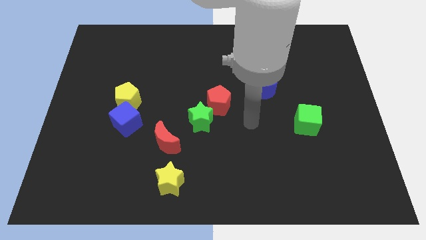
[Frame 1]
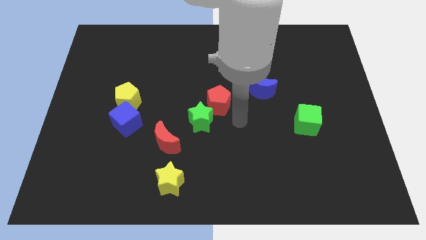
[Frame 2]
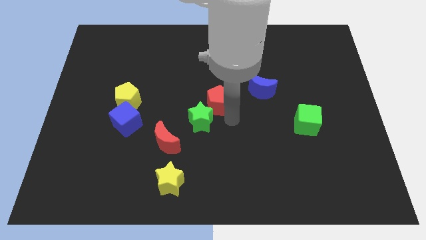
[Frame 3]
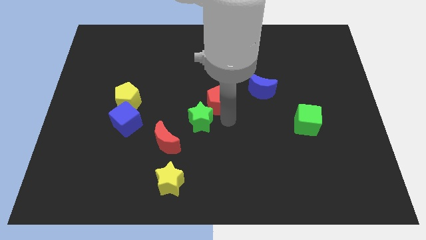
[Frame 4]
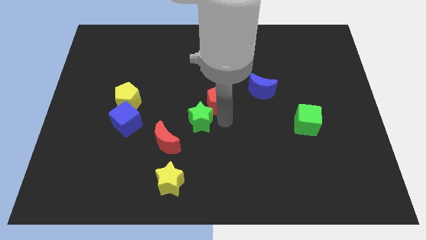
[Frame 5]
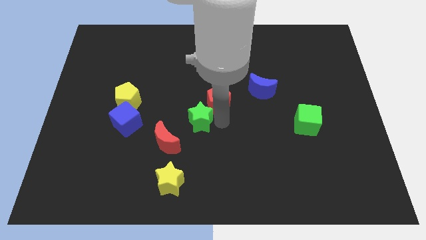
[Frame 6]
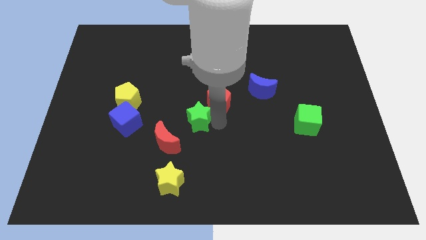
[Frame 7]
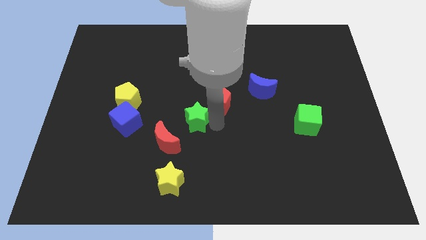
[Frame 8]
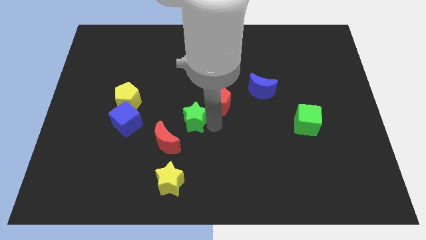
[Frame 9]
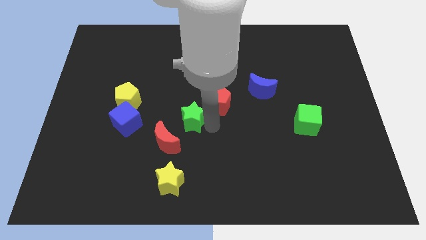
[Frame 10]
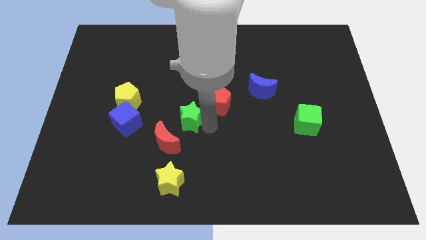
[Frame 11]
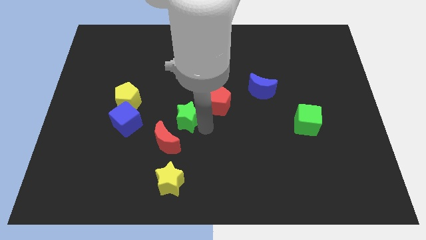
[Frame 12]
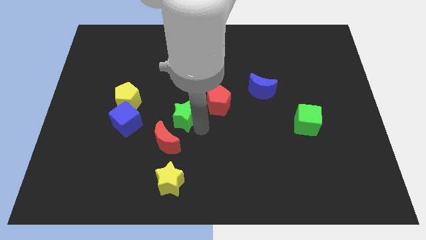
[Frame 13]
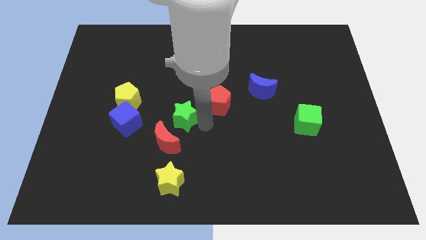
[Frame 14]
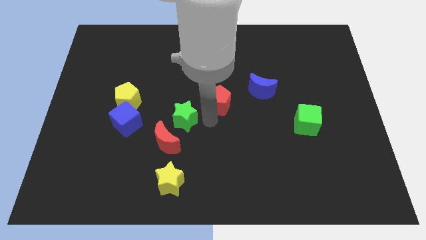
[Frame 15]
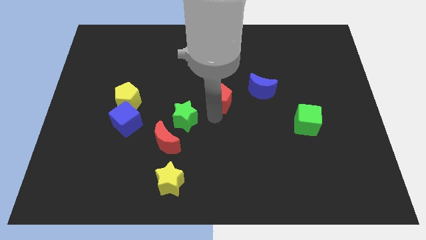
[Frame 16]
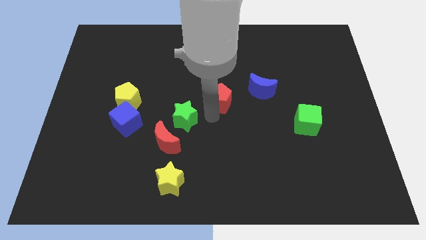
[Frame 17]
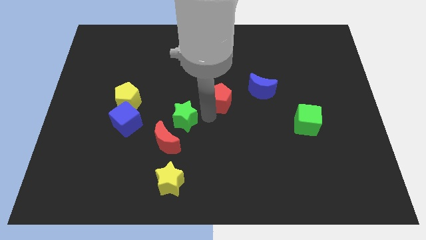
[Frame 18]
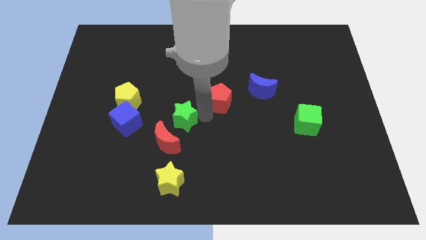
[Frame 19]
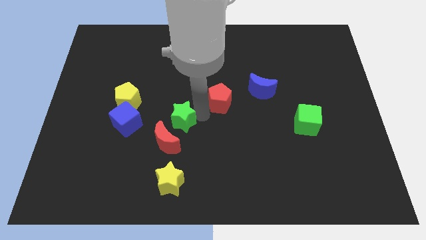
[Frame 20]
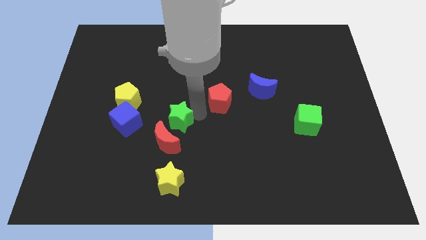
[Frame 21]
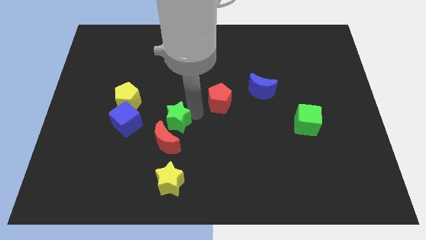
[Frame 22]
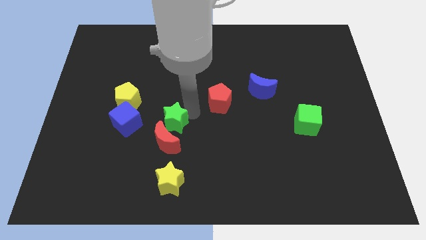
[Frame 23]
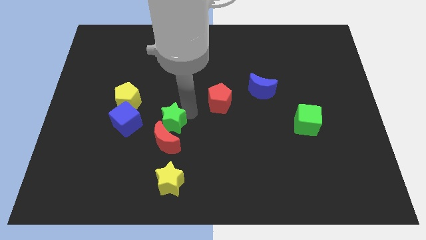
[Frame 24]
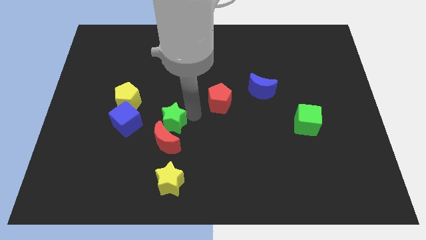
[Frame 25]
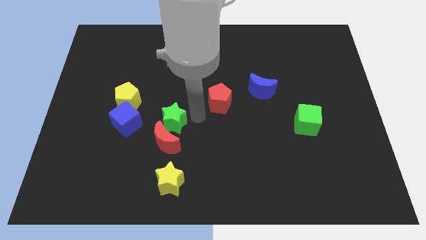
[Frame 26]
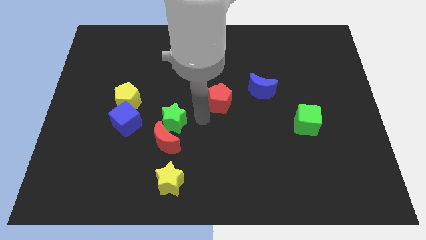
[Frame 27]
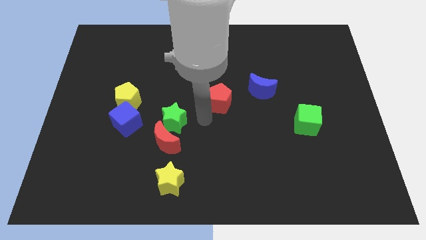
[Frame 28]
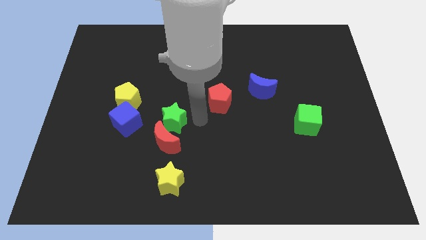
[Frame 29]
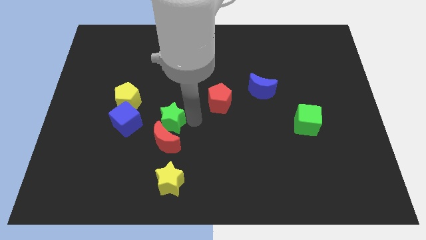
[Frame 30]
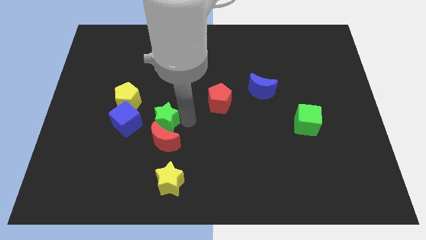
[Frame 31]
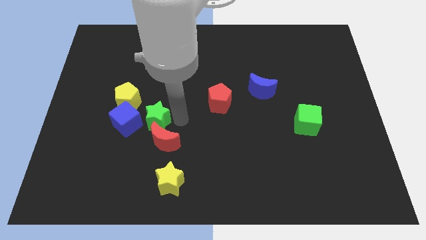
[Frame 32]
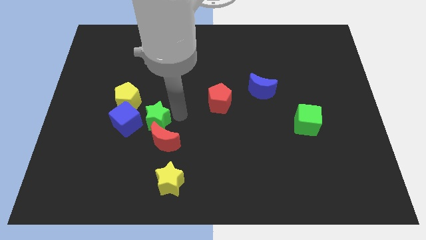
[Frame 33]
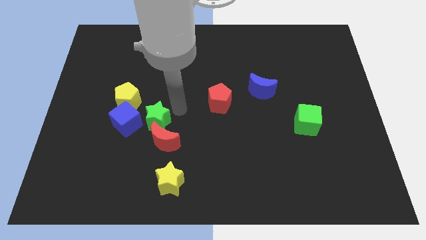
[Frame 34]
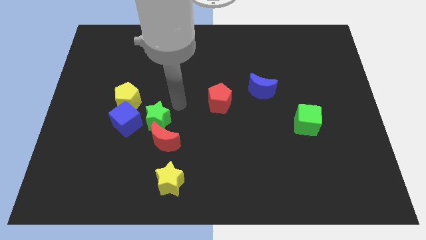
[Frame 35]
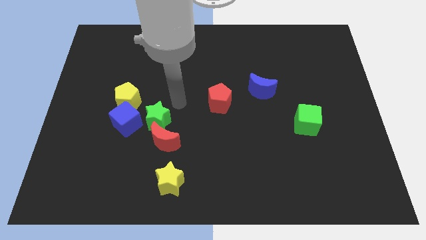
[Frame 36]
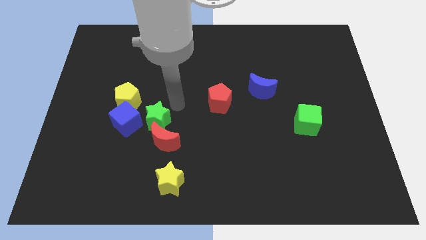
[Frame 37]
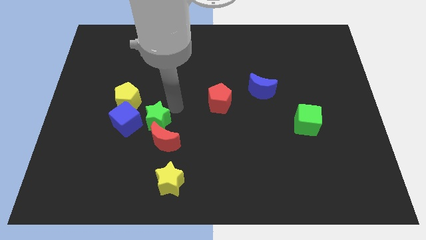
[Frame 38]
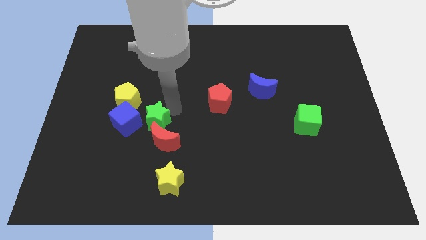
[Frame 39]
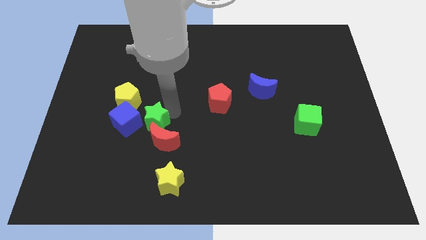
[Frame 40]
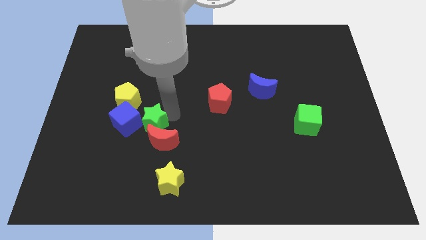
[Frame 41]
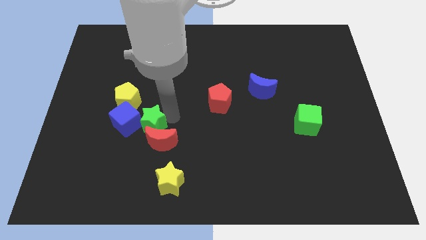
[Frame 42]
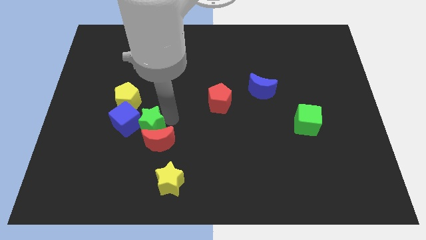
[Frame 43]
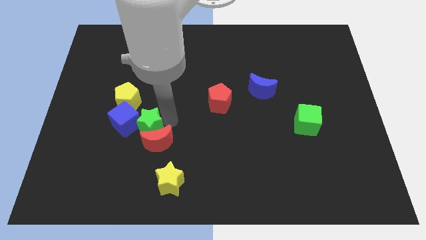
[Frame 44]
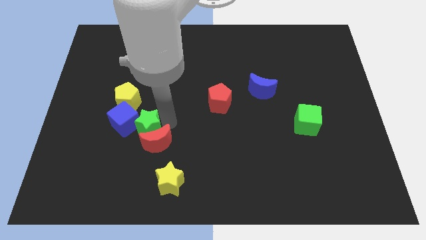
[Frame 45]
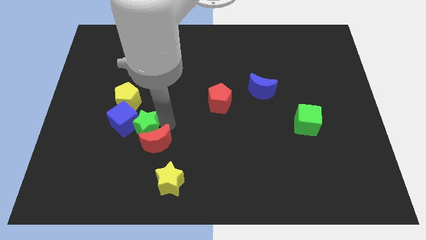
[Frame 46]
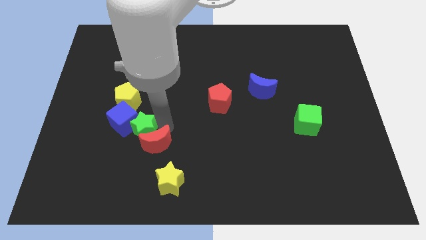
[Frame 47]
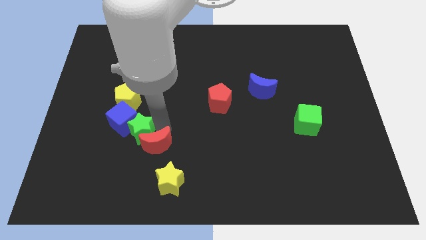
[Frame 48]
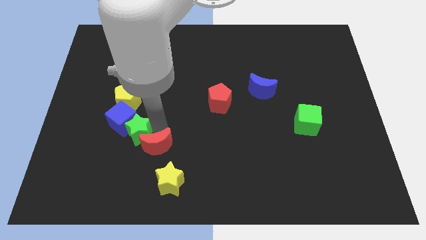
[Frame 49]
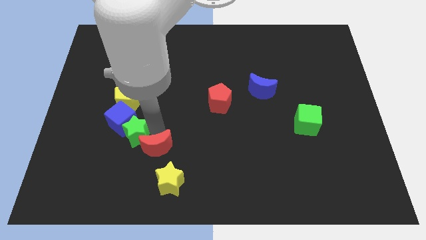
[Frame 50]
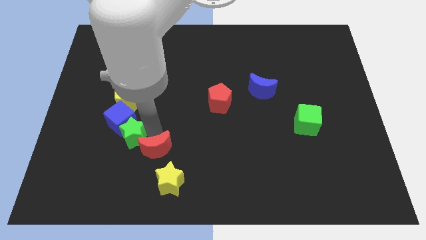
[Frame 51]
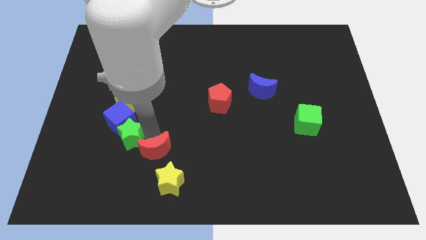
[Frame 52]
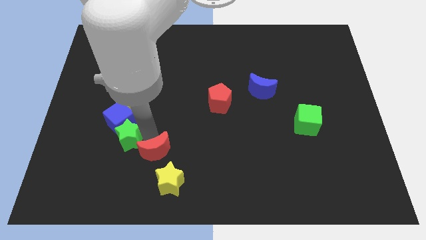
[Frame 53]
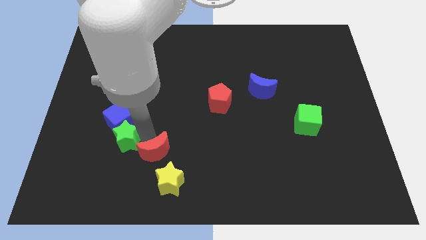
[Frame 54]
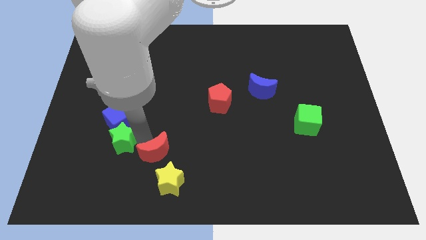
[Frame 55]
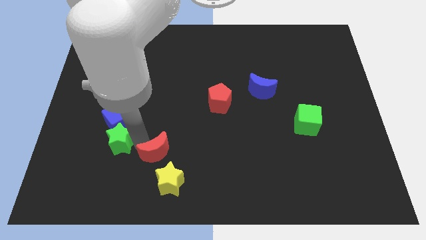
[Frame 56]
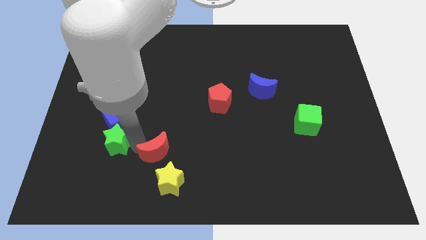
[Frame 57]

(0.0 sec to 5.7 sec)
push the green star to the bottom left of the blue cube

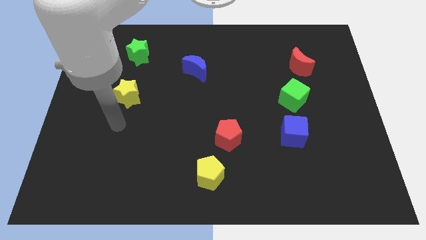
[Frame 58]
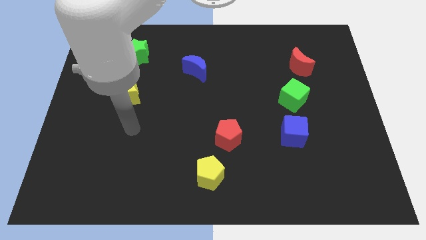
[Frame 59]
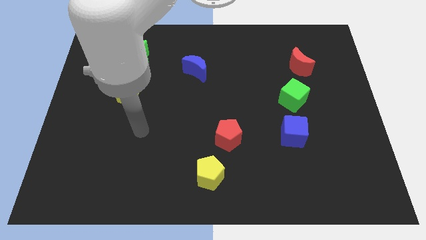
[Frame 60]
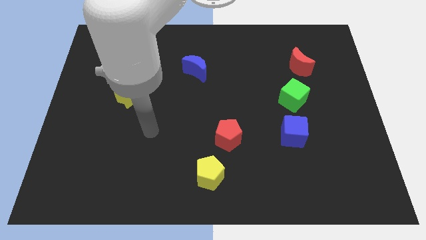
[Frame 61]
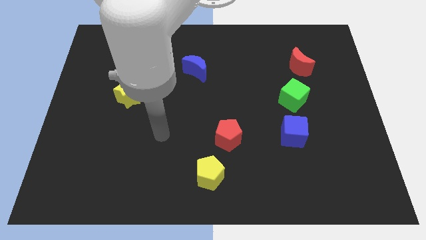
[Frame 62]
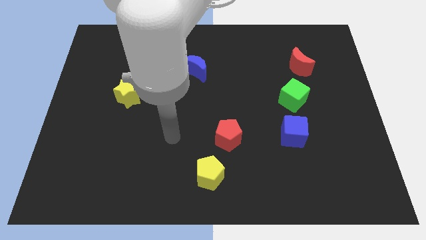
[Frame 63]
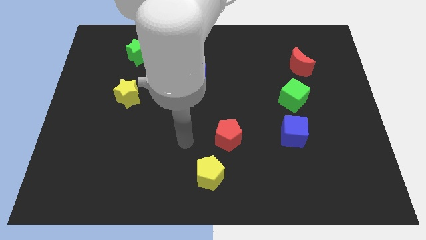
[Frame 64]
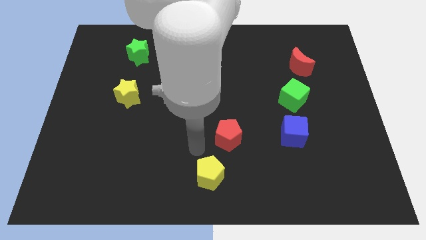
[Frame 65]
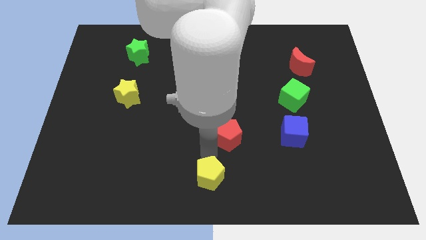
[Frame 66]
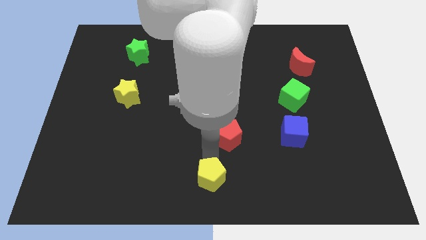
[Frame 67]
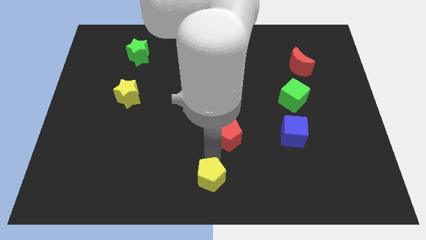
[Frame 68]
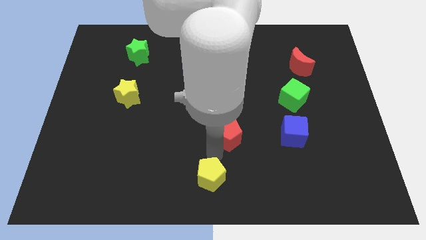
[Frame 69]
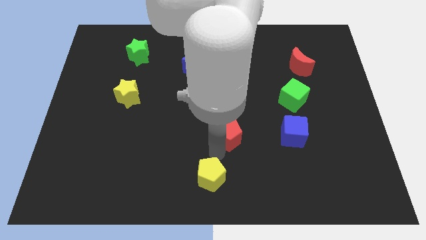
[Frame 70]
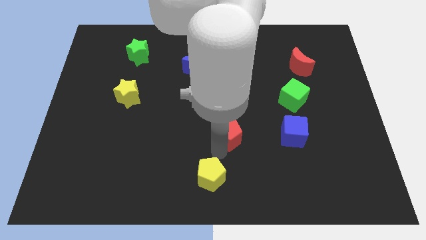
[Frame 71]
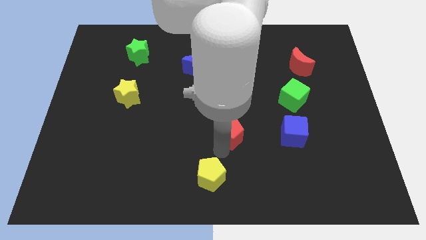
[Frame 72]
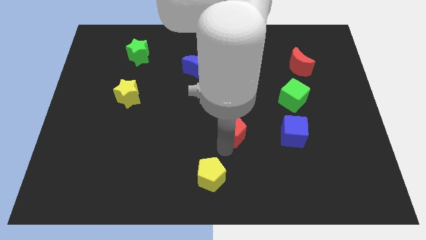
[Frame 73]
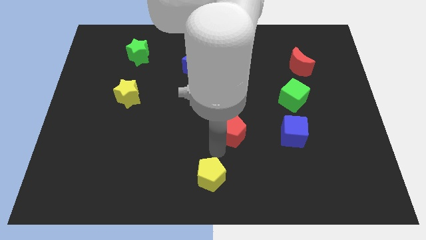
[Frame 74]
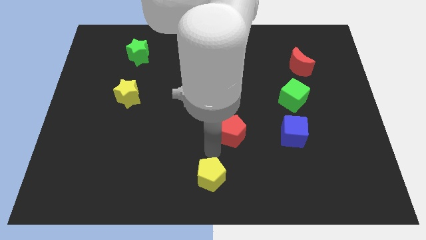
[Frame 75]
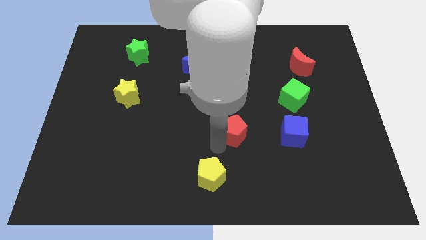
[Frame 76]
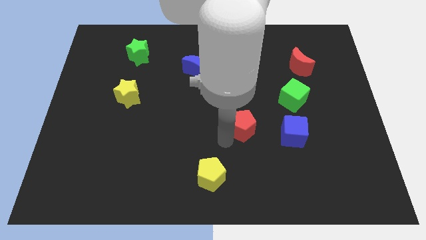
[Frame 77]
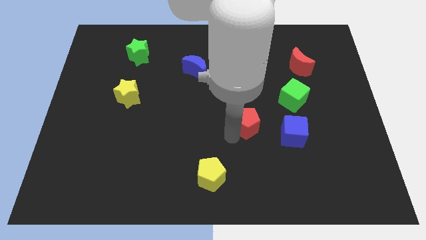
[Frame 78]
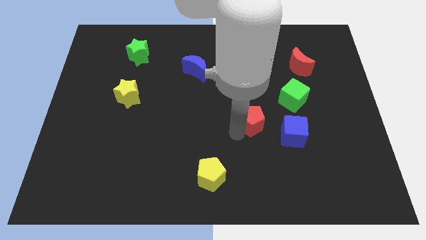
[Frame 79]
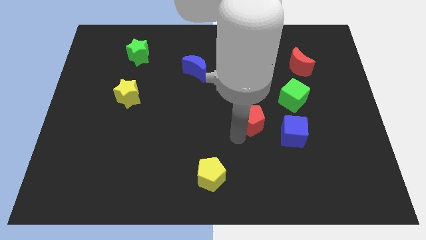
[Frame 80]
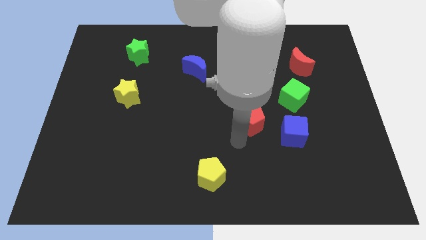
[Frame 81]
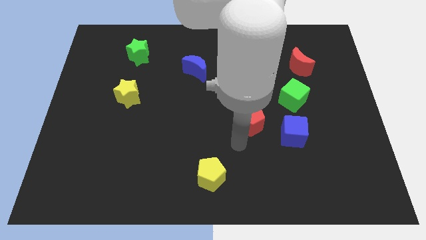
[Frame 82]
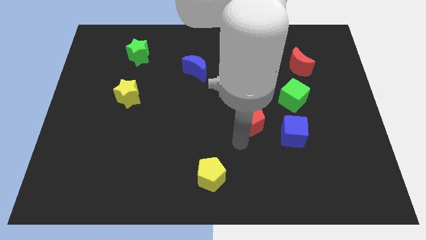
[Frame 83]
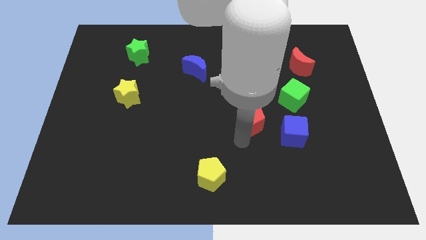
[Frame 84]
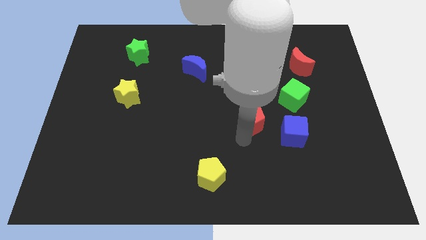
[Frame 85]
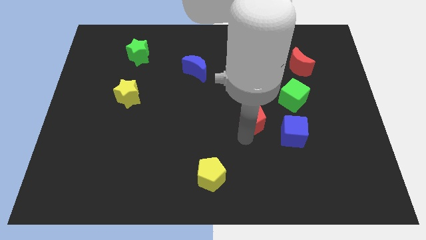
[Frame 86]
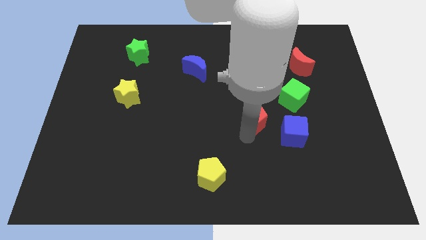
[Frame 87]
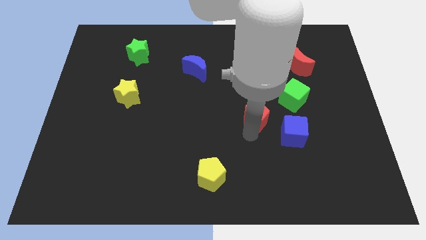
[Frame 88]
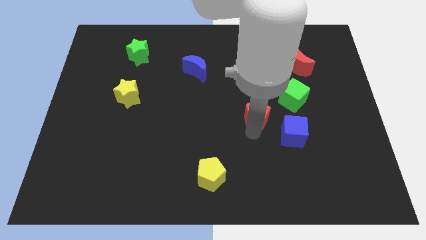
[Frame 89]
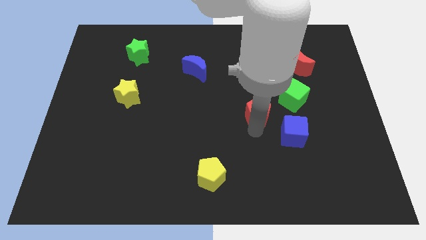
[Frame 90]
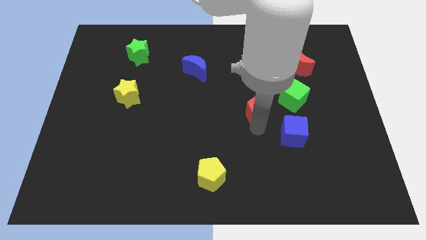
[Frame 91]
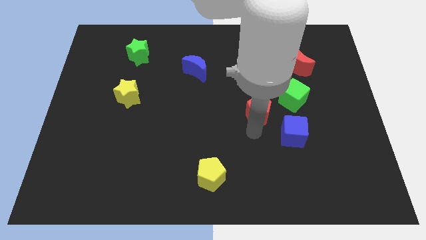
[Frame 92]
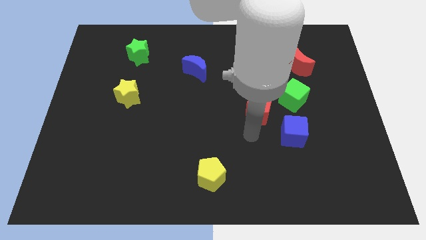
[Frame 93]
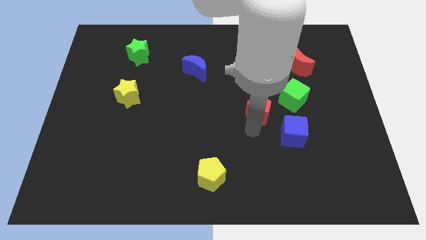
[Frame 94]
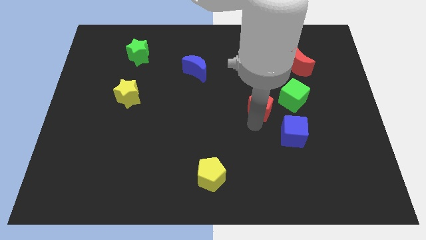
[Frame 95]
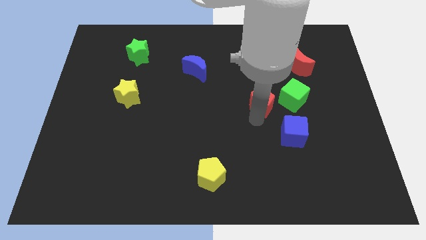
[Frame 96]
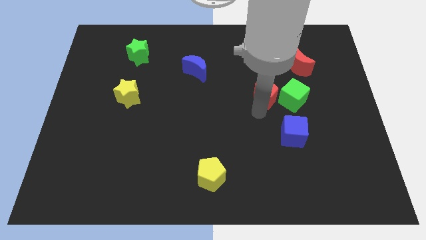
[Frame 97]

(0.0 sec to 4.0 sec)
slide the red pentagon diagonally up and to the left of the green cube
